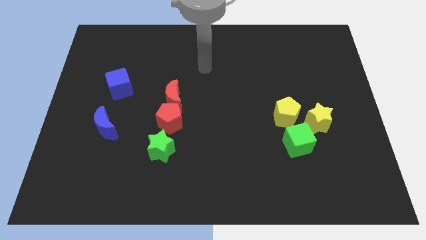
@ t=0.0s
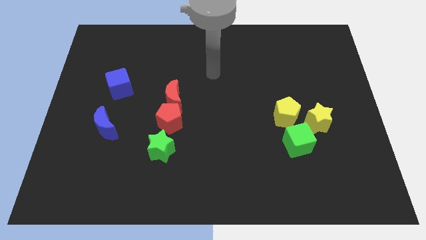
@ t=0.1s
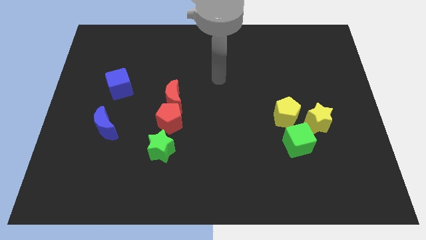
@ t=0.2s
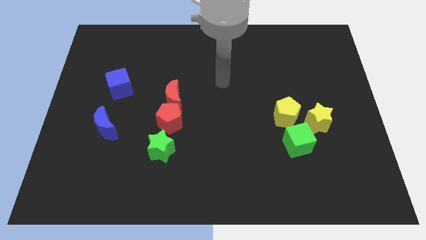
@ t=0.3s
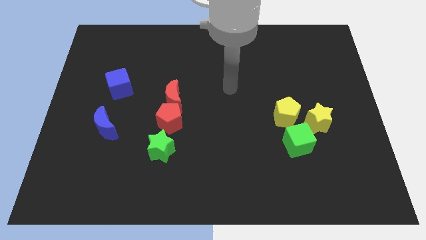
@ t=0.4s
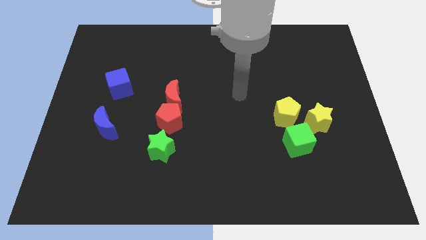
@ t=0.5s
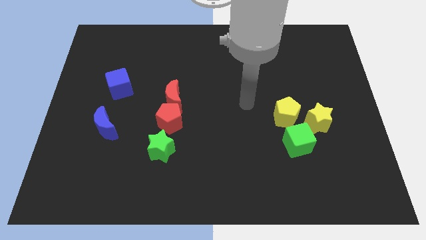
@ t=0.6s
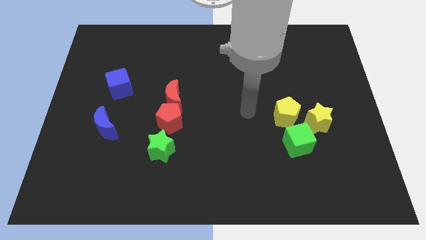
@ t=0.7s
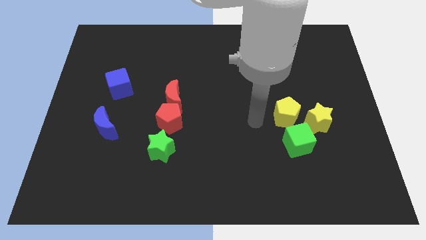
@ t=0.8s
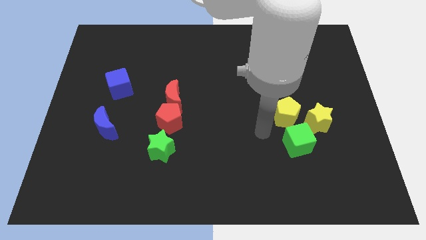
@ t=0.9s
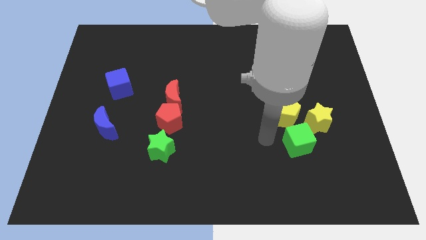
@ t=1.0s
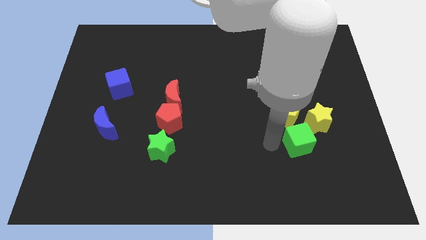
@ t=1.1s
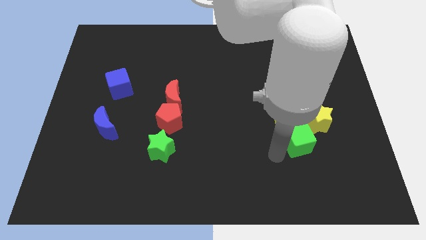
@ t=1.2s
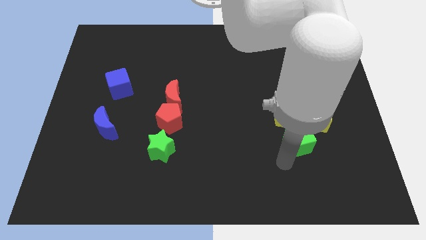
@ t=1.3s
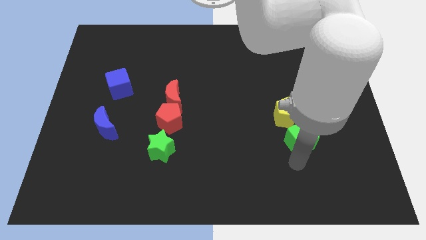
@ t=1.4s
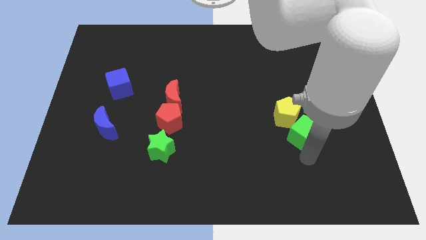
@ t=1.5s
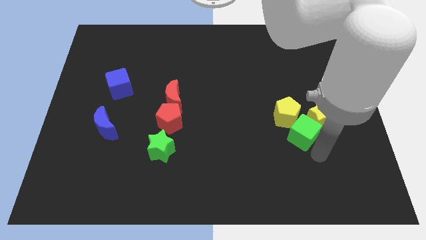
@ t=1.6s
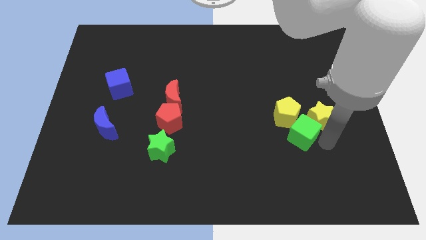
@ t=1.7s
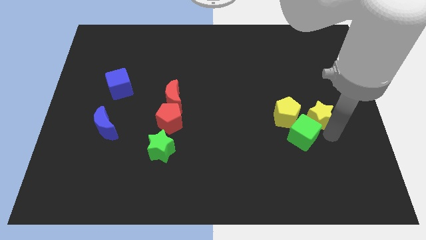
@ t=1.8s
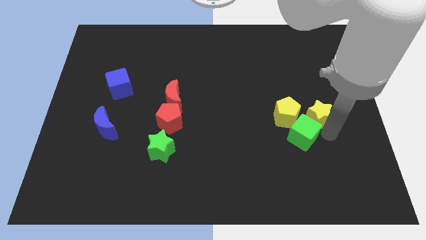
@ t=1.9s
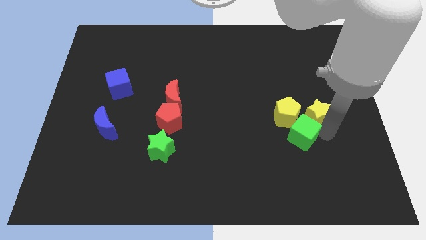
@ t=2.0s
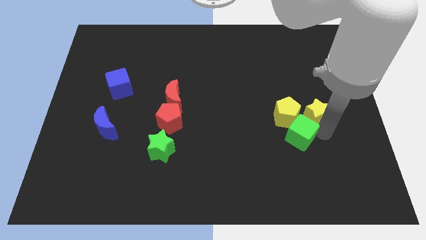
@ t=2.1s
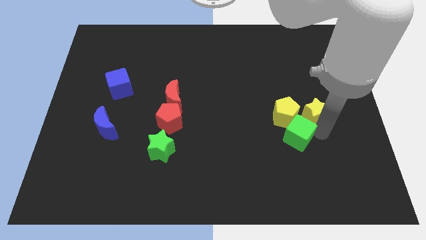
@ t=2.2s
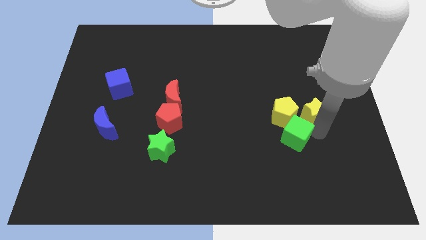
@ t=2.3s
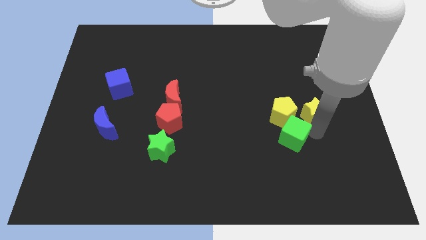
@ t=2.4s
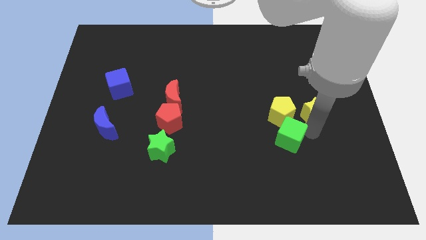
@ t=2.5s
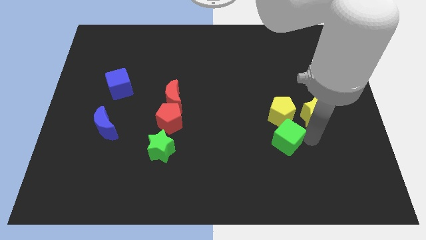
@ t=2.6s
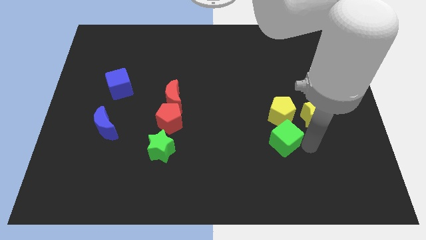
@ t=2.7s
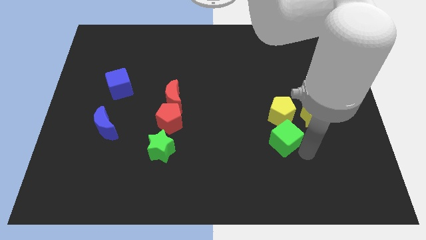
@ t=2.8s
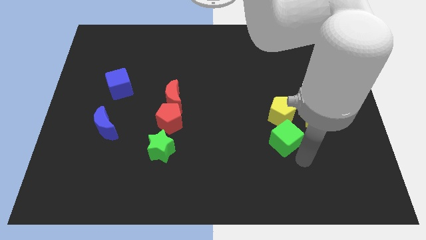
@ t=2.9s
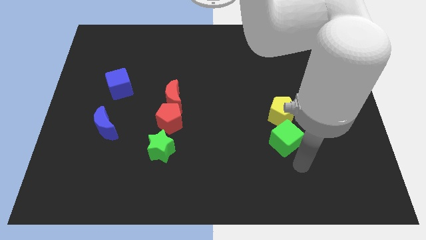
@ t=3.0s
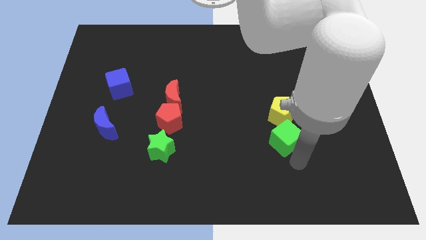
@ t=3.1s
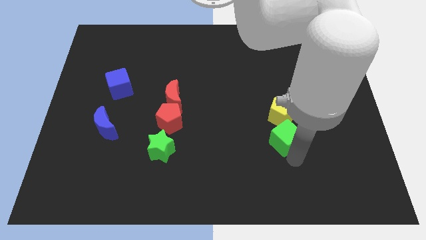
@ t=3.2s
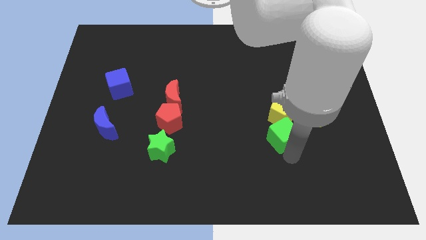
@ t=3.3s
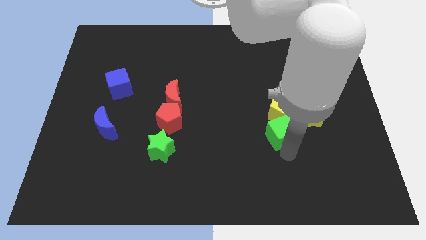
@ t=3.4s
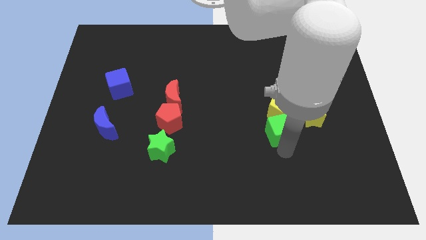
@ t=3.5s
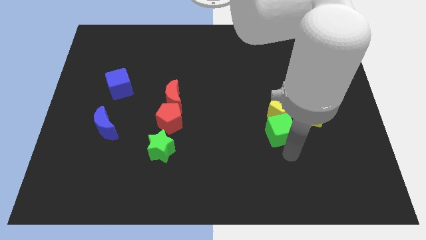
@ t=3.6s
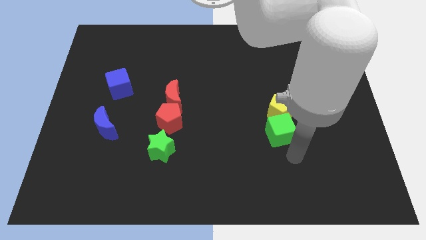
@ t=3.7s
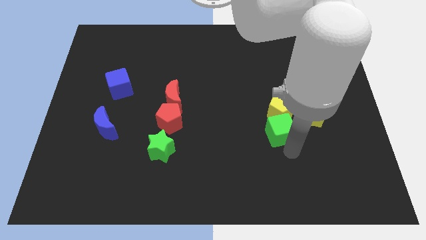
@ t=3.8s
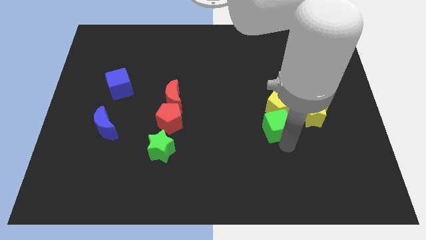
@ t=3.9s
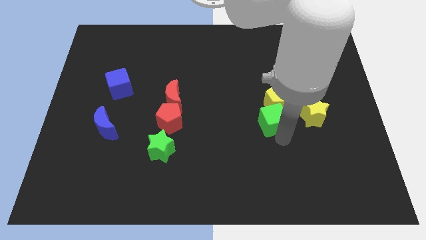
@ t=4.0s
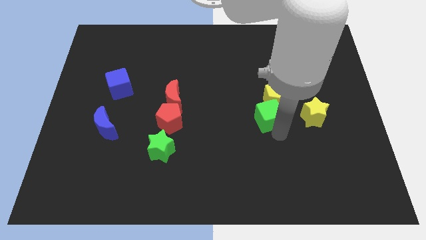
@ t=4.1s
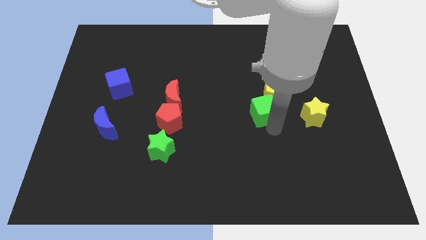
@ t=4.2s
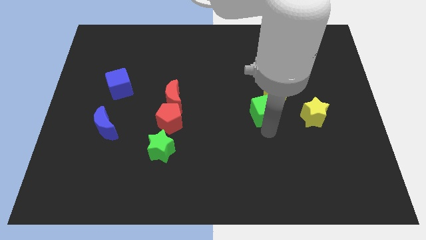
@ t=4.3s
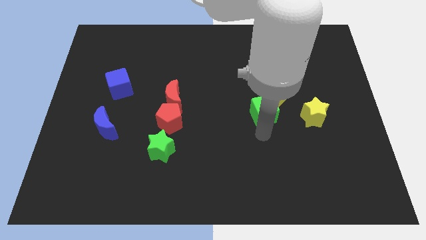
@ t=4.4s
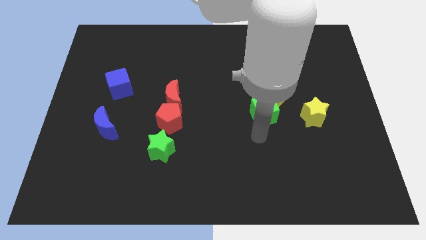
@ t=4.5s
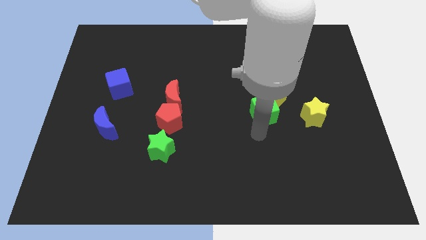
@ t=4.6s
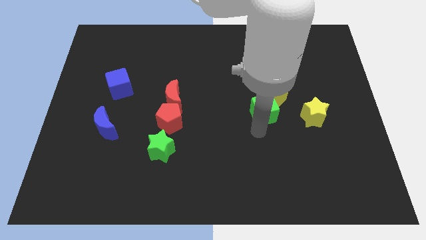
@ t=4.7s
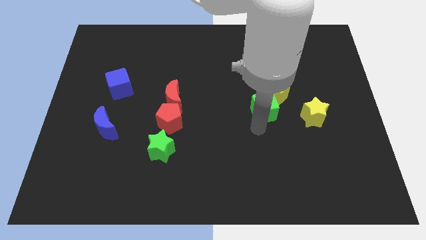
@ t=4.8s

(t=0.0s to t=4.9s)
push the green cube slightly up

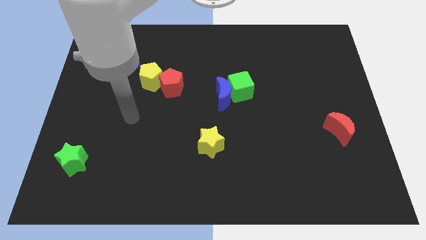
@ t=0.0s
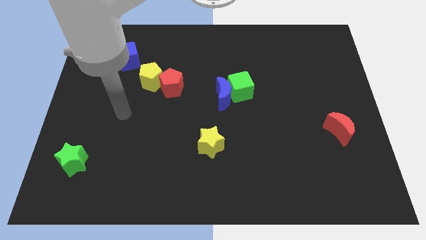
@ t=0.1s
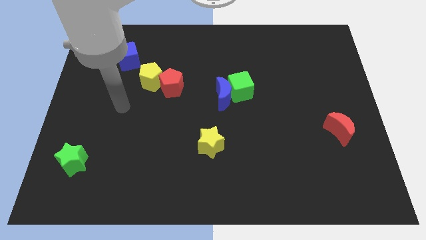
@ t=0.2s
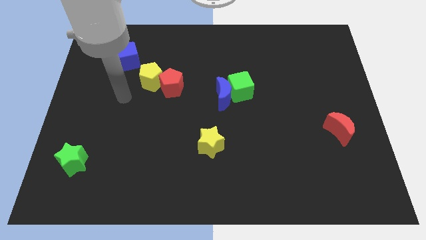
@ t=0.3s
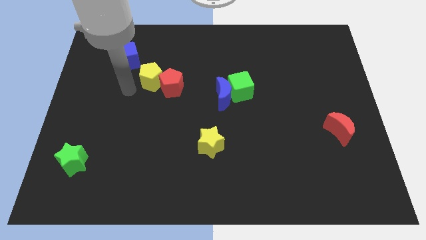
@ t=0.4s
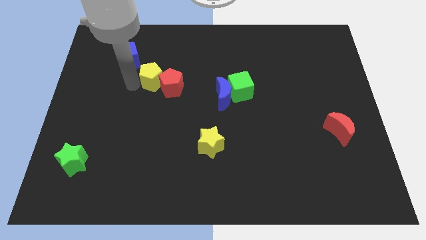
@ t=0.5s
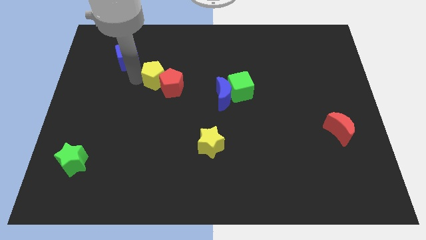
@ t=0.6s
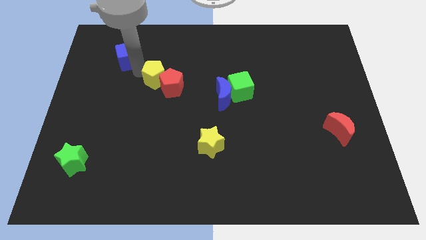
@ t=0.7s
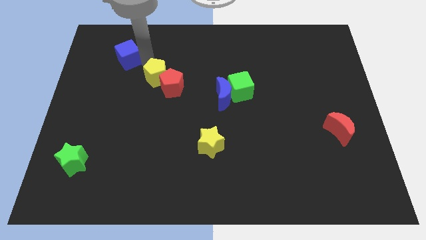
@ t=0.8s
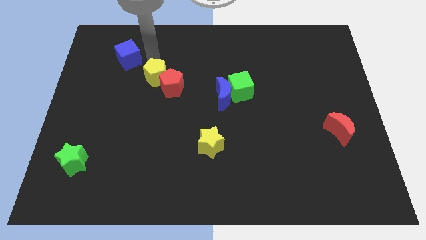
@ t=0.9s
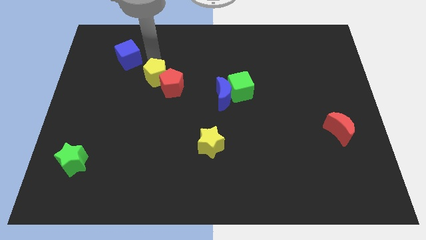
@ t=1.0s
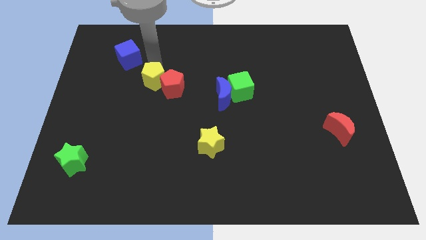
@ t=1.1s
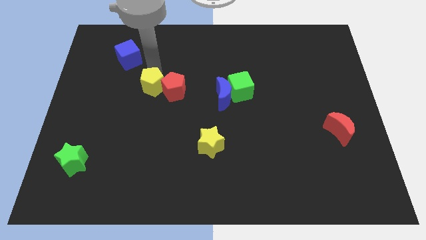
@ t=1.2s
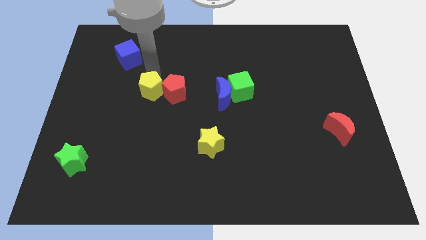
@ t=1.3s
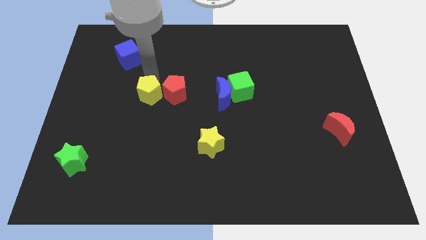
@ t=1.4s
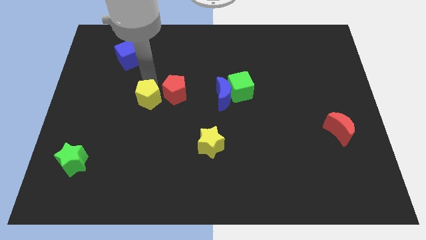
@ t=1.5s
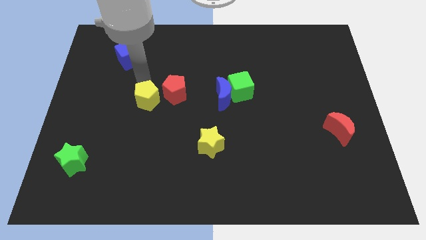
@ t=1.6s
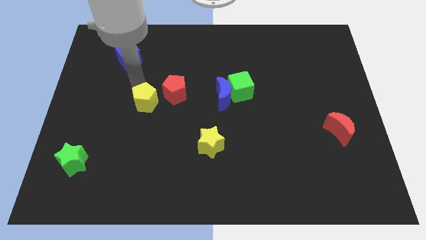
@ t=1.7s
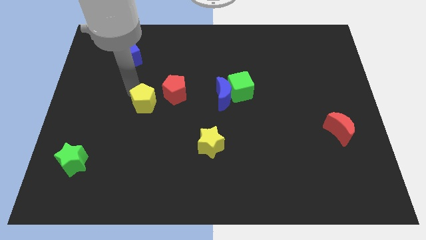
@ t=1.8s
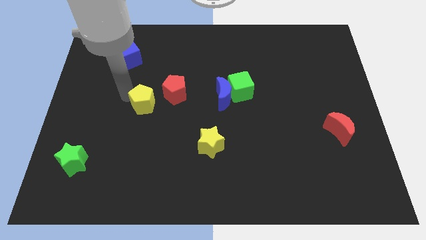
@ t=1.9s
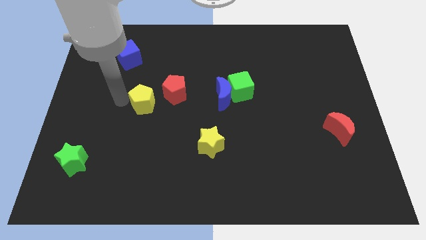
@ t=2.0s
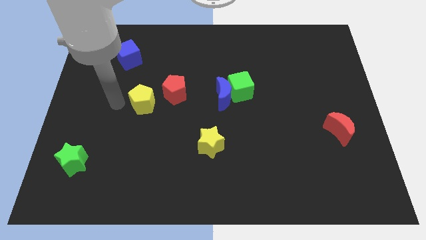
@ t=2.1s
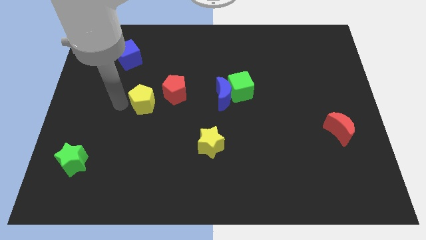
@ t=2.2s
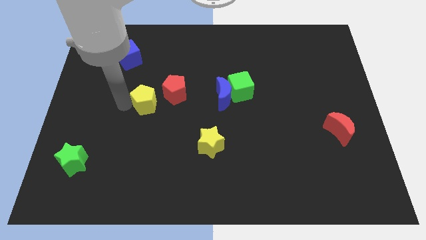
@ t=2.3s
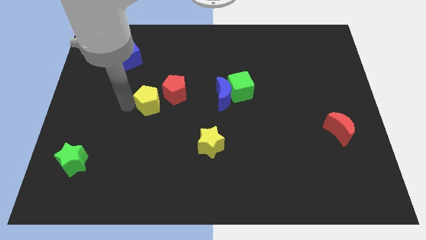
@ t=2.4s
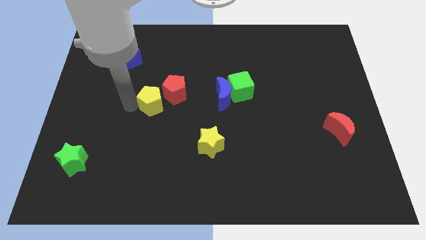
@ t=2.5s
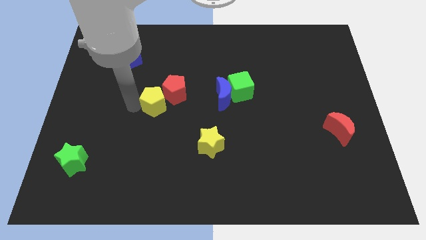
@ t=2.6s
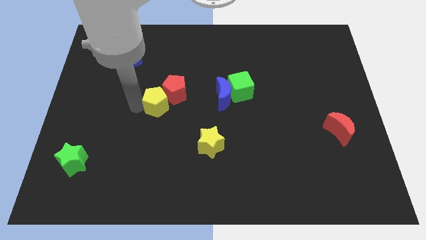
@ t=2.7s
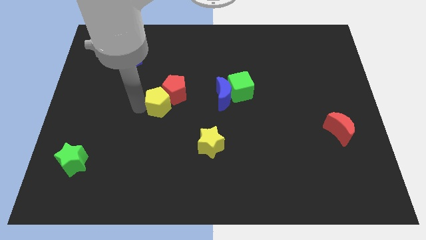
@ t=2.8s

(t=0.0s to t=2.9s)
move the yellow pentagon a little bit down and then to the right
